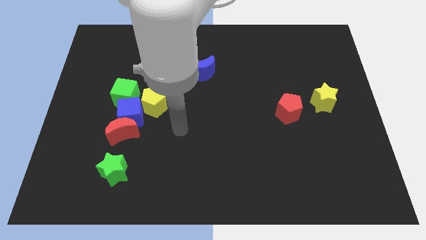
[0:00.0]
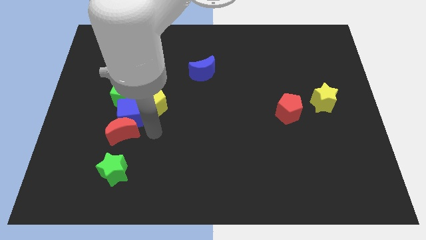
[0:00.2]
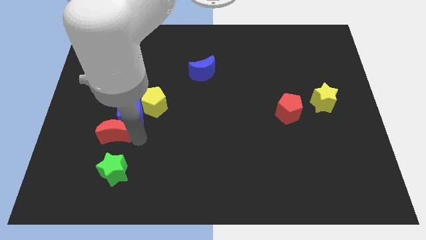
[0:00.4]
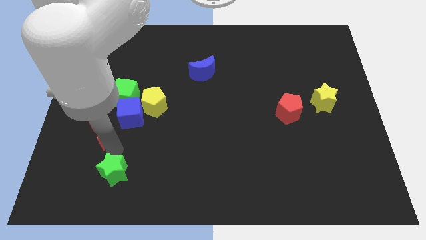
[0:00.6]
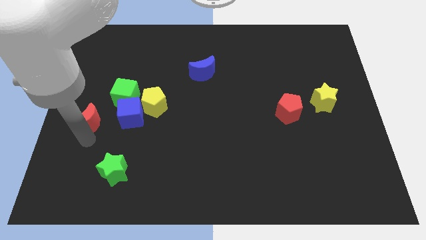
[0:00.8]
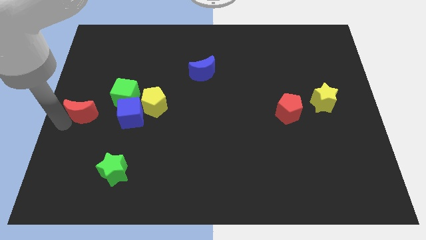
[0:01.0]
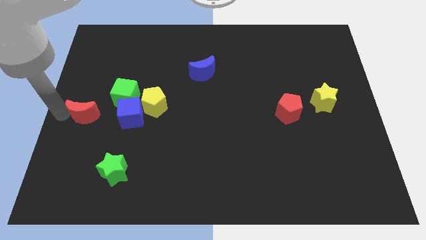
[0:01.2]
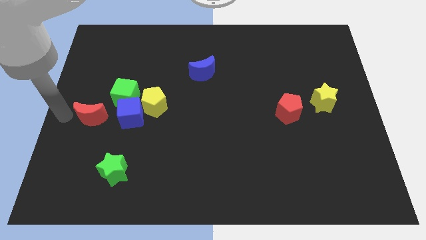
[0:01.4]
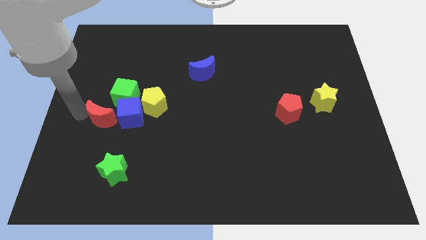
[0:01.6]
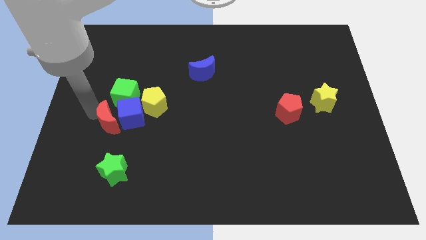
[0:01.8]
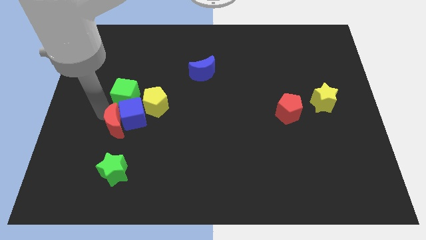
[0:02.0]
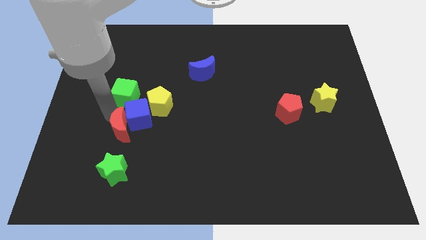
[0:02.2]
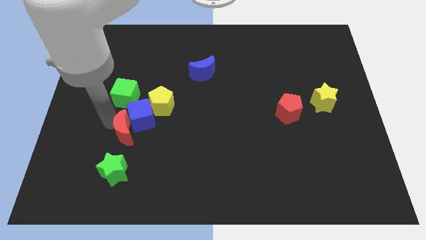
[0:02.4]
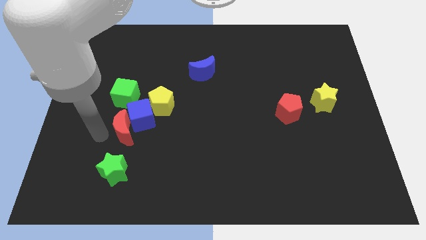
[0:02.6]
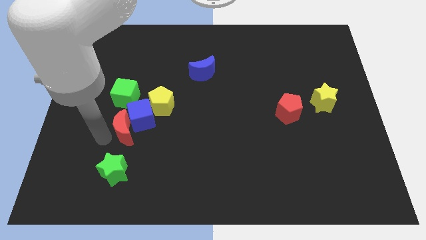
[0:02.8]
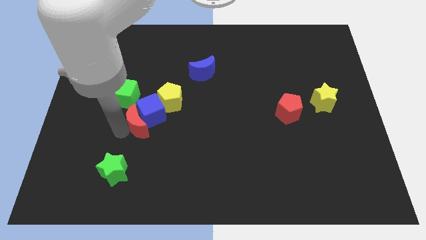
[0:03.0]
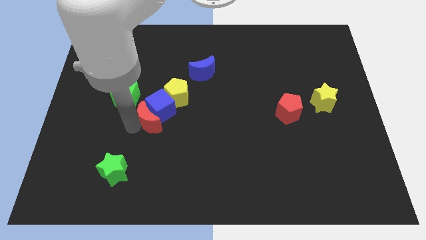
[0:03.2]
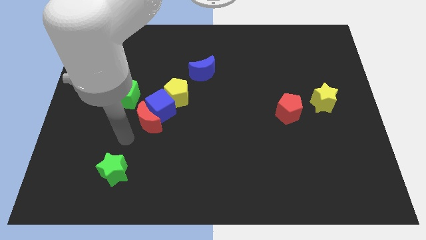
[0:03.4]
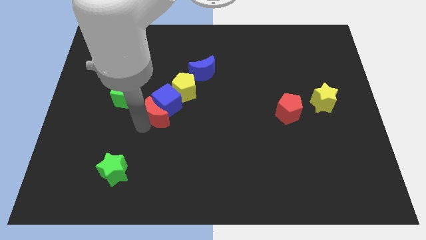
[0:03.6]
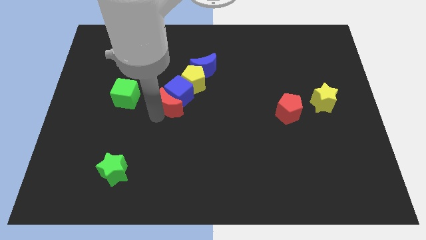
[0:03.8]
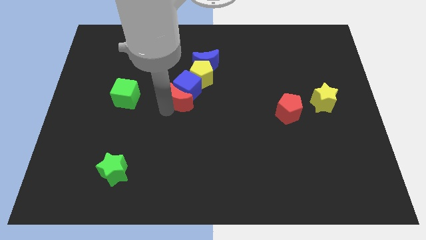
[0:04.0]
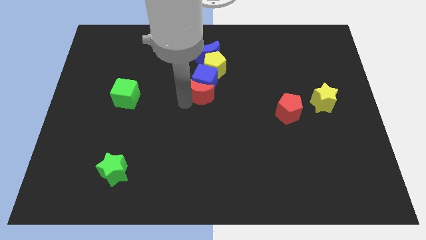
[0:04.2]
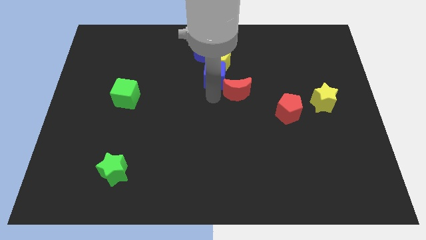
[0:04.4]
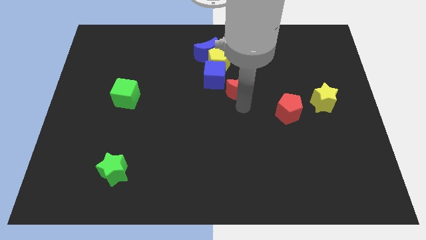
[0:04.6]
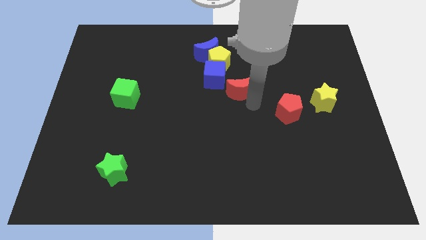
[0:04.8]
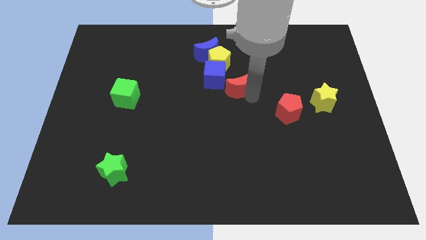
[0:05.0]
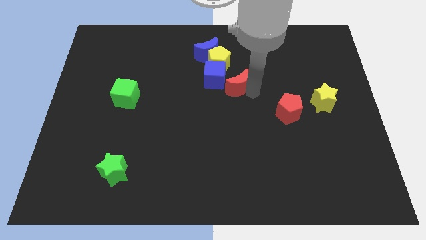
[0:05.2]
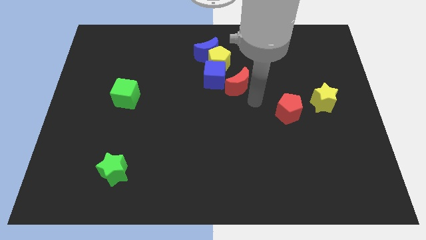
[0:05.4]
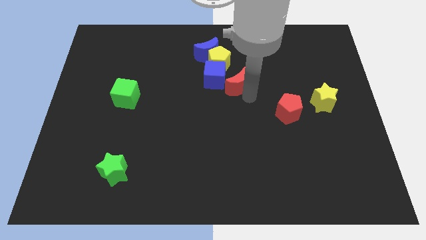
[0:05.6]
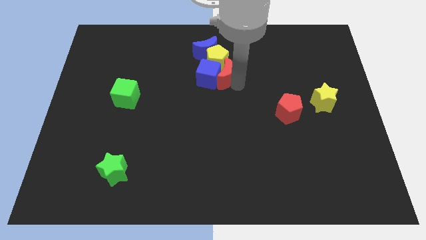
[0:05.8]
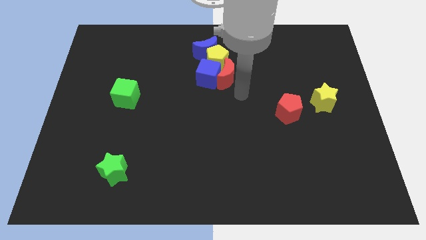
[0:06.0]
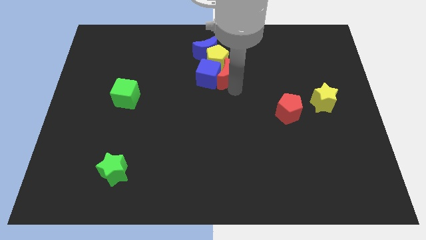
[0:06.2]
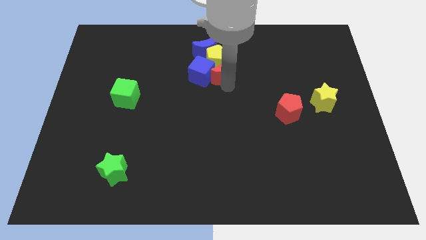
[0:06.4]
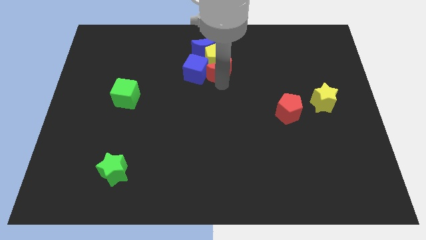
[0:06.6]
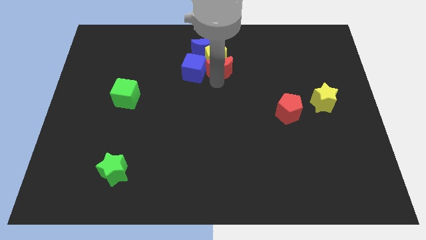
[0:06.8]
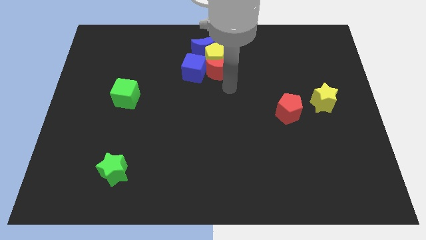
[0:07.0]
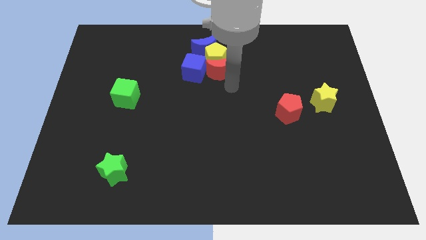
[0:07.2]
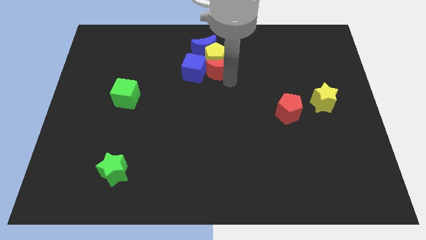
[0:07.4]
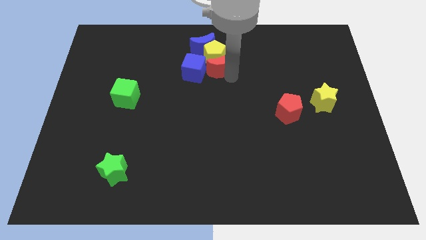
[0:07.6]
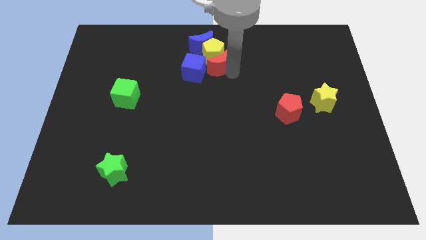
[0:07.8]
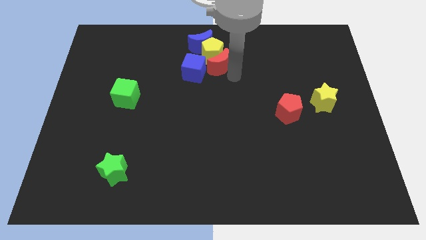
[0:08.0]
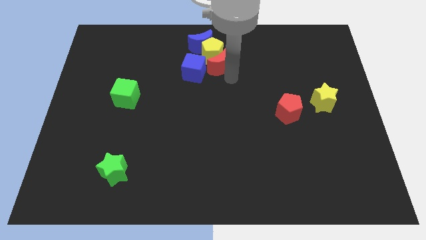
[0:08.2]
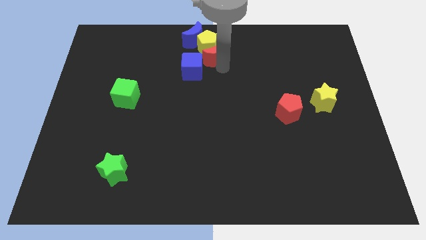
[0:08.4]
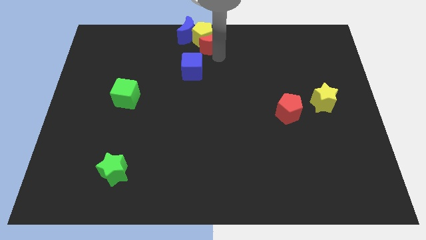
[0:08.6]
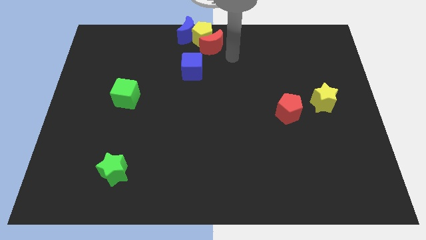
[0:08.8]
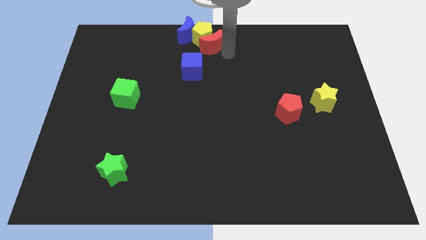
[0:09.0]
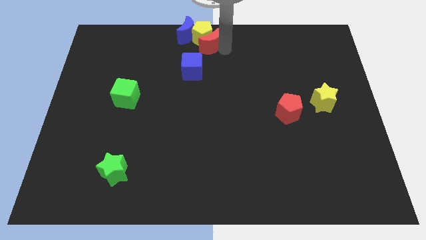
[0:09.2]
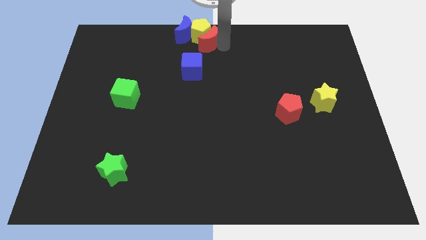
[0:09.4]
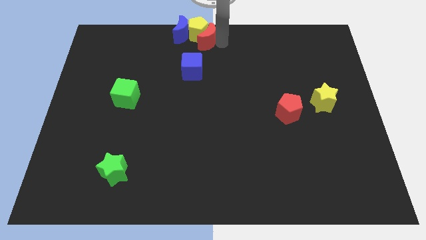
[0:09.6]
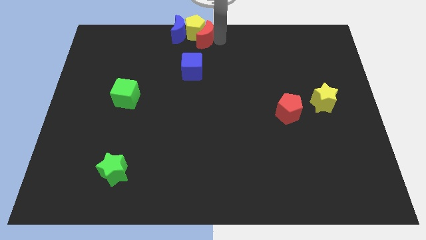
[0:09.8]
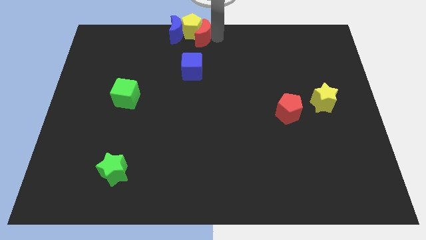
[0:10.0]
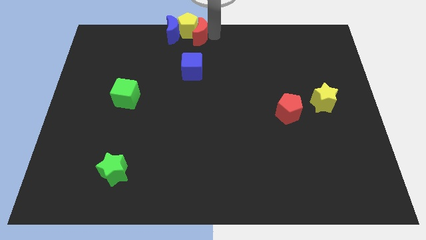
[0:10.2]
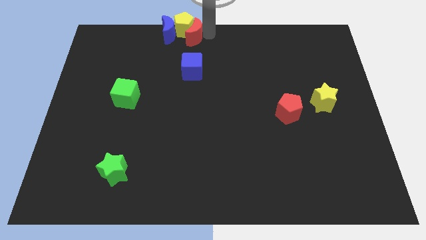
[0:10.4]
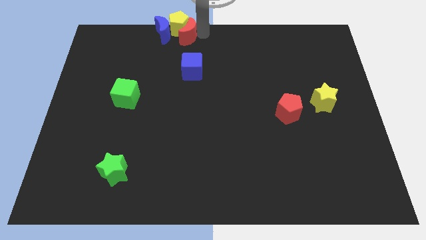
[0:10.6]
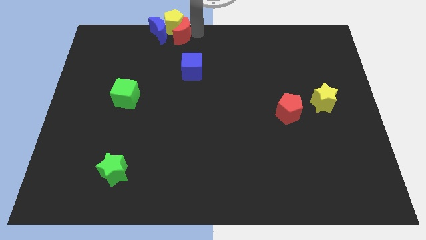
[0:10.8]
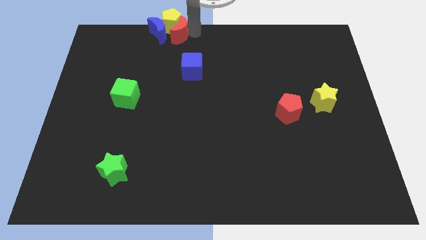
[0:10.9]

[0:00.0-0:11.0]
slide the red moon close to the blue moon

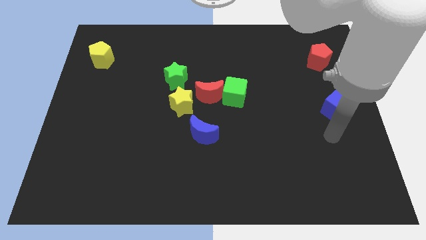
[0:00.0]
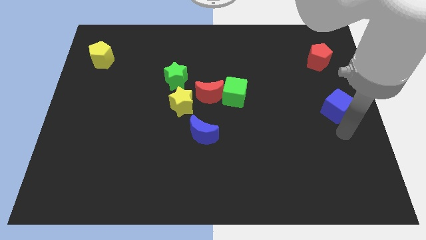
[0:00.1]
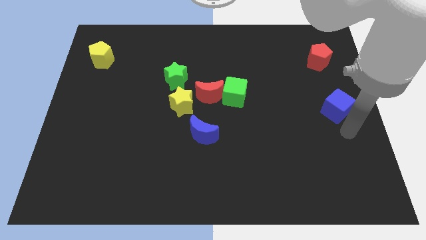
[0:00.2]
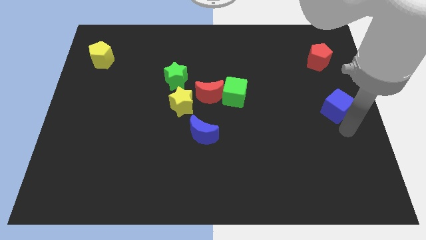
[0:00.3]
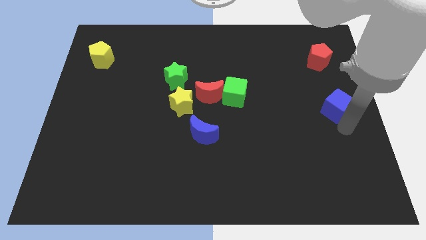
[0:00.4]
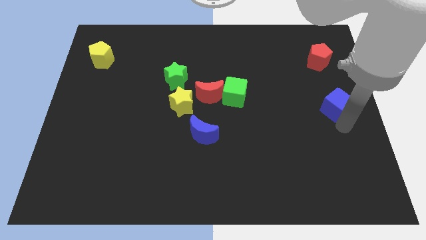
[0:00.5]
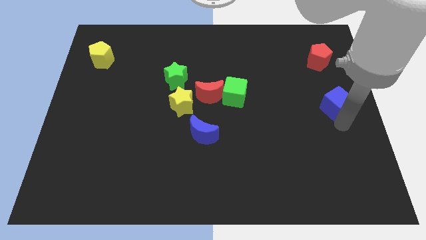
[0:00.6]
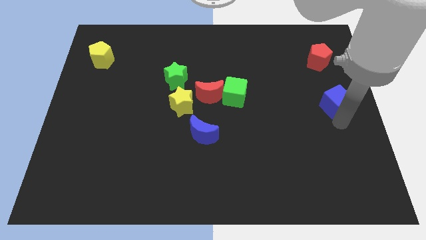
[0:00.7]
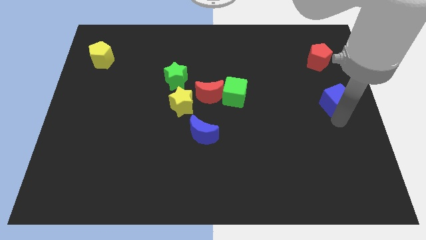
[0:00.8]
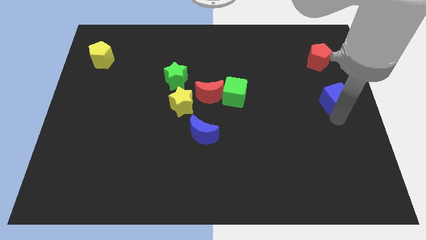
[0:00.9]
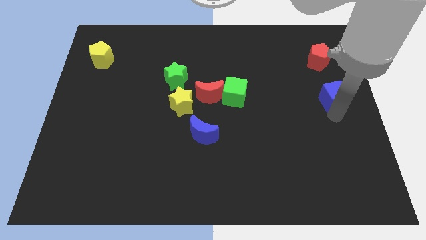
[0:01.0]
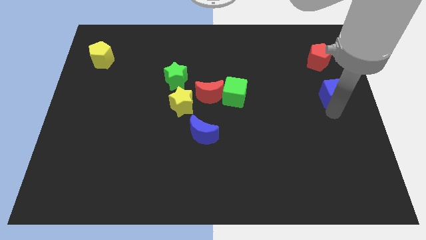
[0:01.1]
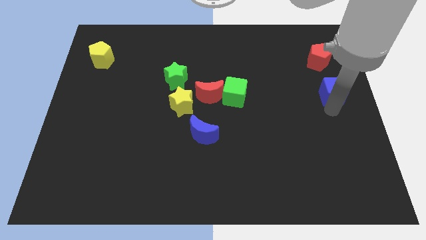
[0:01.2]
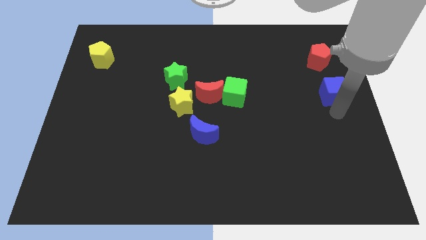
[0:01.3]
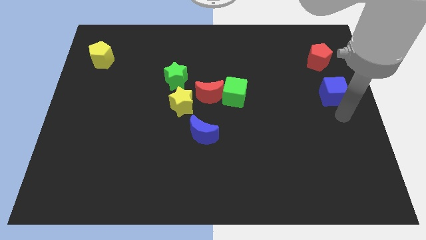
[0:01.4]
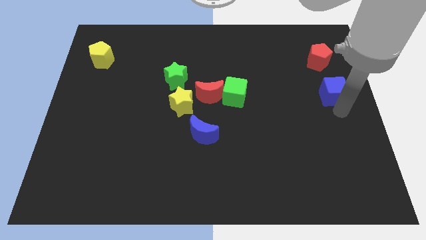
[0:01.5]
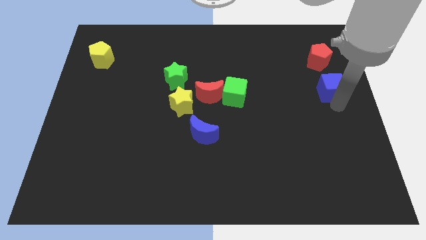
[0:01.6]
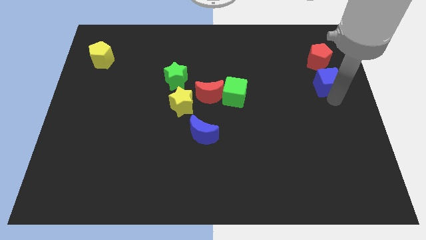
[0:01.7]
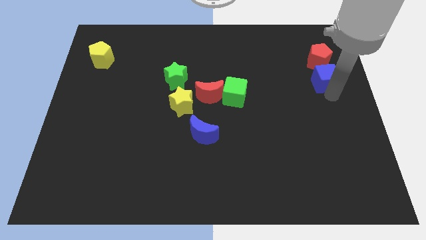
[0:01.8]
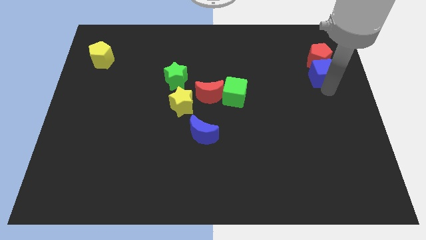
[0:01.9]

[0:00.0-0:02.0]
push the blue cube towards the red pentagon
